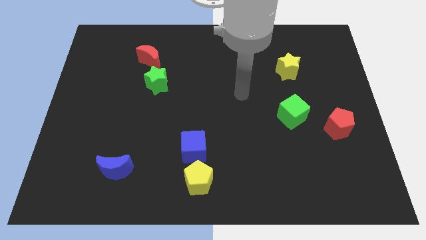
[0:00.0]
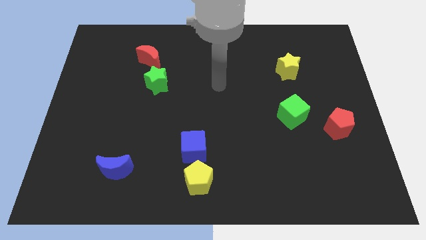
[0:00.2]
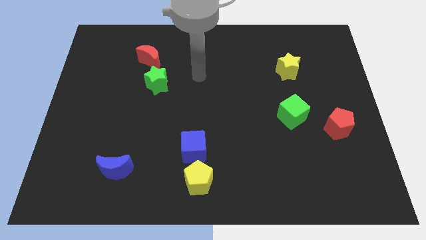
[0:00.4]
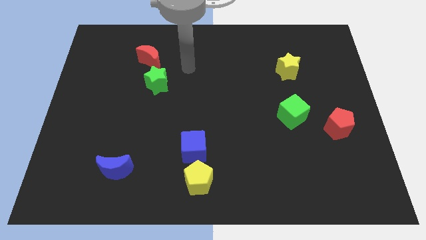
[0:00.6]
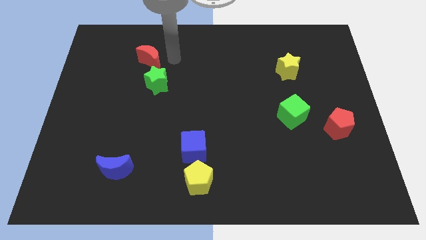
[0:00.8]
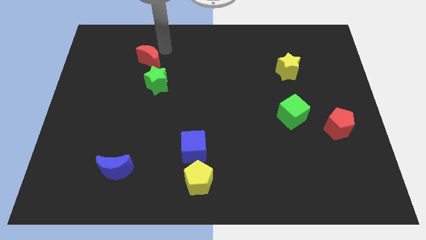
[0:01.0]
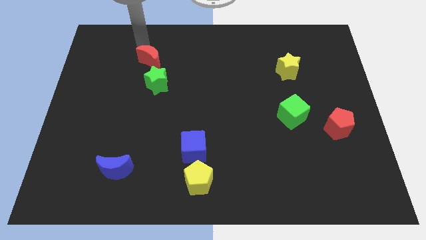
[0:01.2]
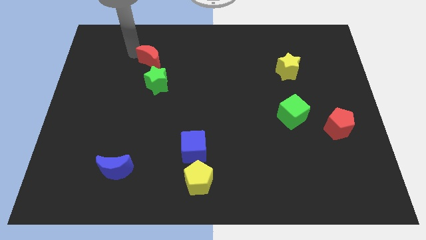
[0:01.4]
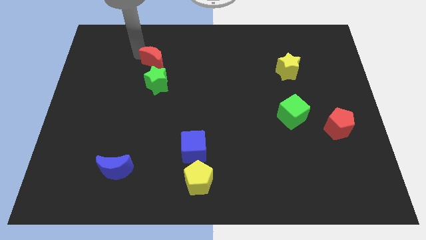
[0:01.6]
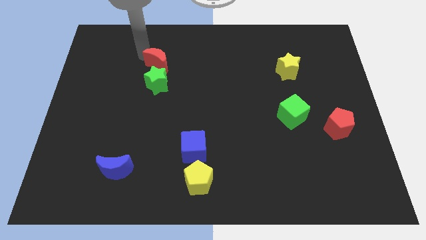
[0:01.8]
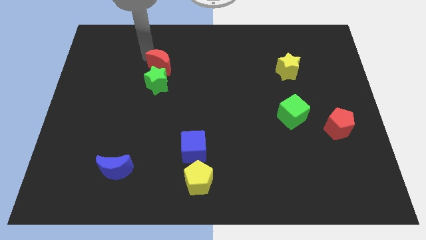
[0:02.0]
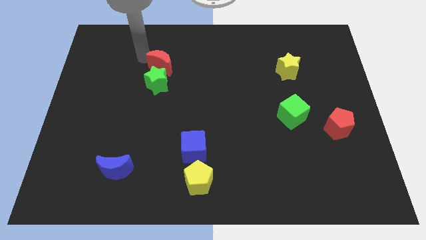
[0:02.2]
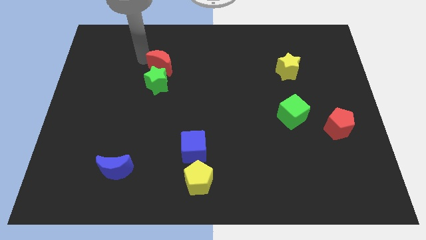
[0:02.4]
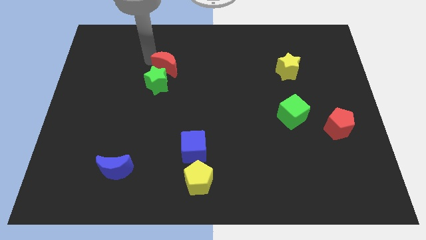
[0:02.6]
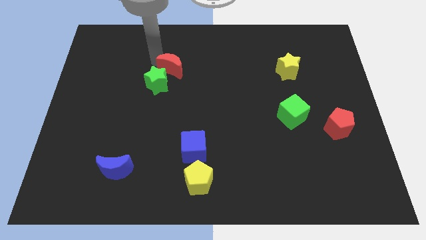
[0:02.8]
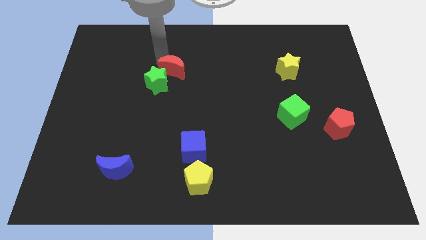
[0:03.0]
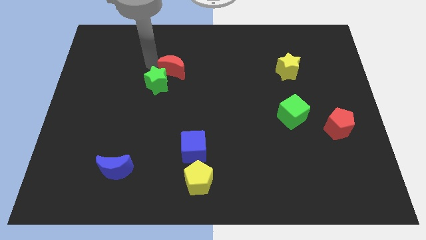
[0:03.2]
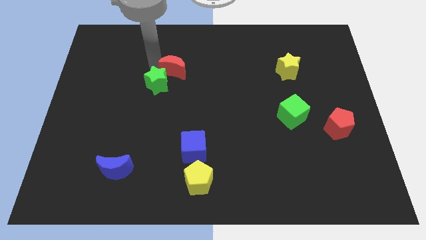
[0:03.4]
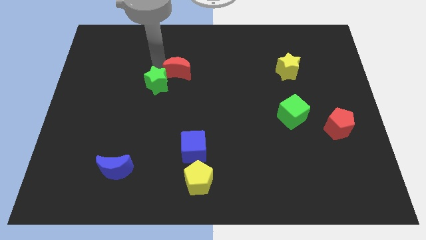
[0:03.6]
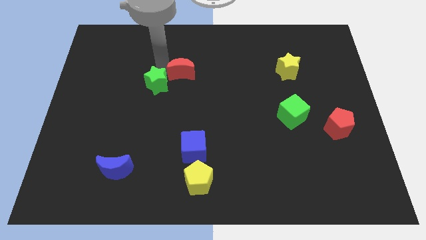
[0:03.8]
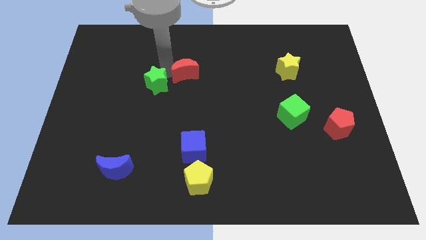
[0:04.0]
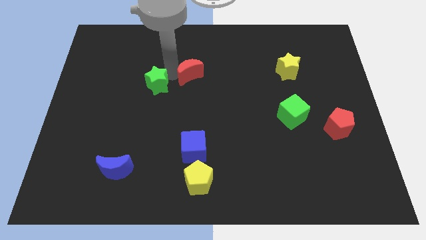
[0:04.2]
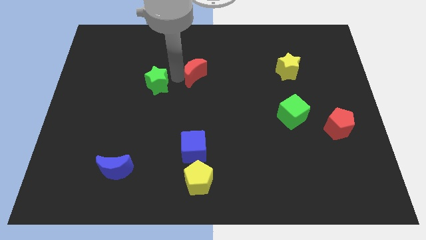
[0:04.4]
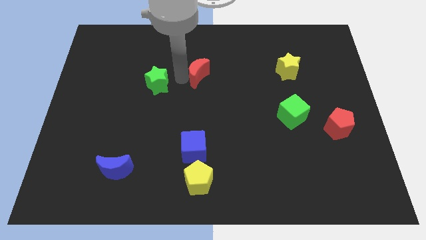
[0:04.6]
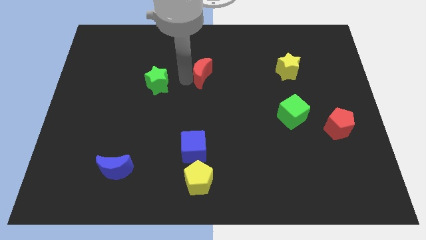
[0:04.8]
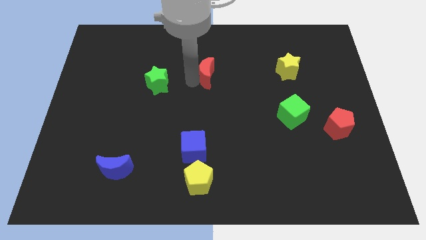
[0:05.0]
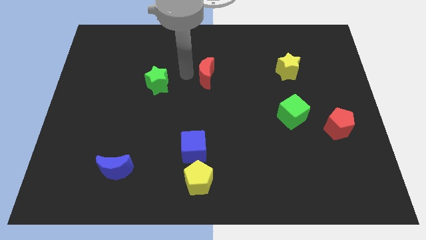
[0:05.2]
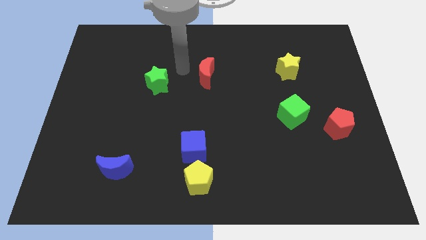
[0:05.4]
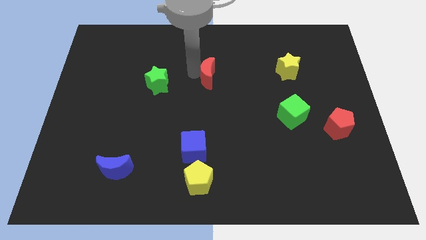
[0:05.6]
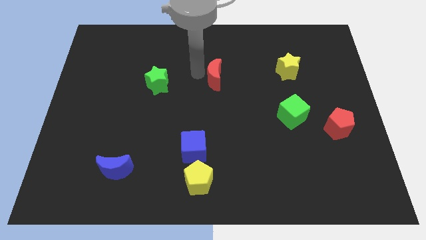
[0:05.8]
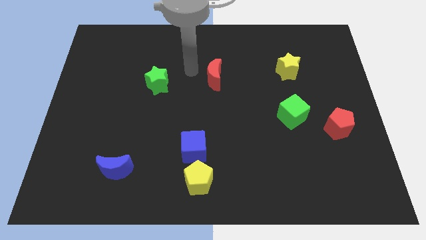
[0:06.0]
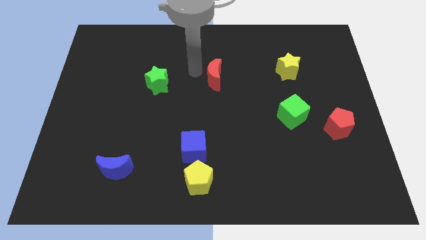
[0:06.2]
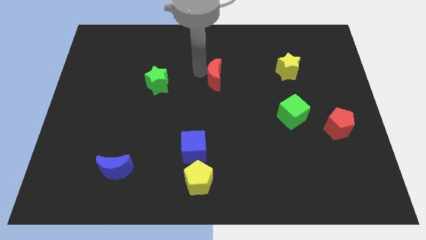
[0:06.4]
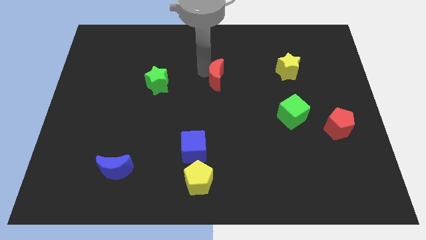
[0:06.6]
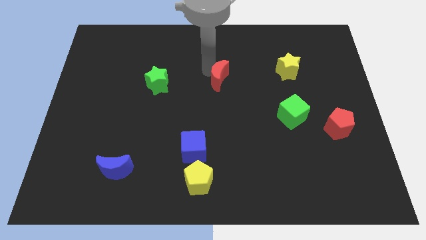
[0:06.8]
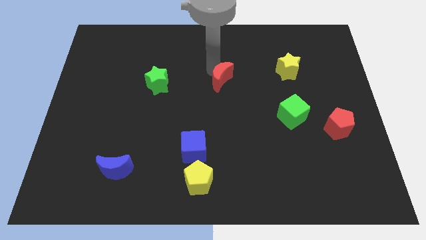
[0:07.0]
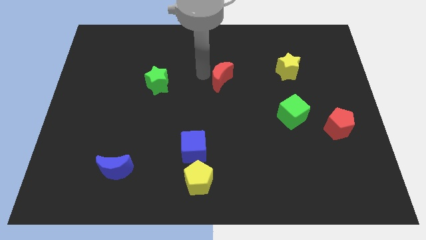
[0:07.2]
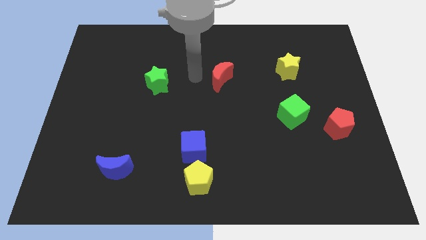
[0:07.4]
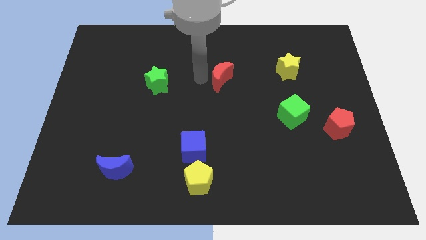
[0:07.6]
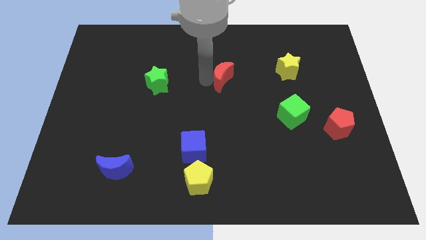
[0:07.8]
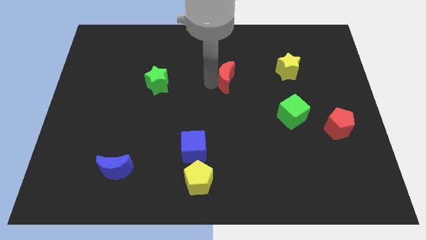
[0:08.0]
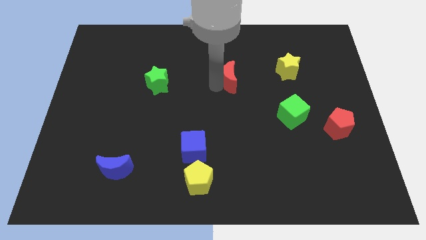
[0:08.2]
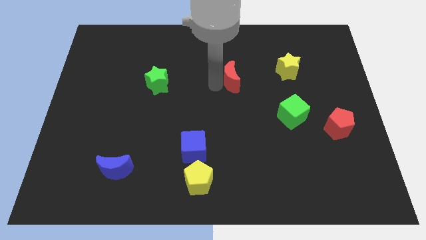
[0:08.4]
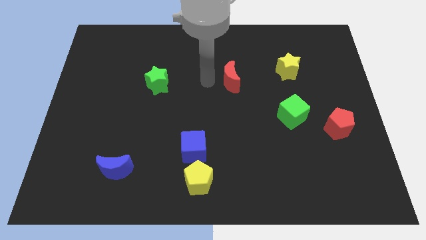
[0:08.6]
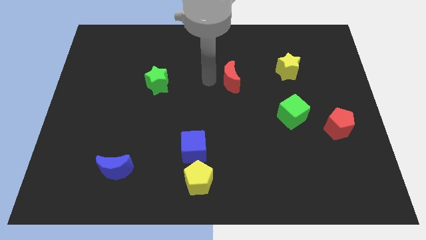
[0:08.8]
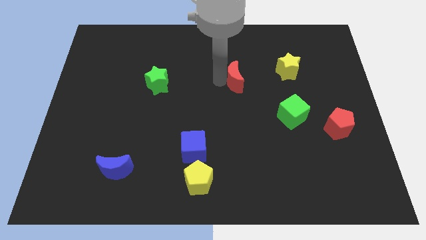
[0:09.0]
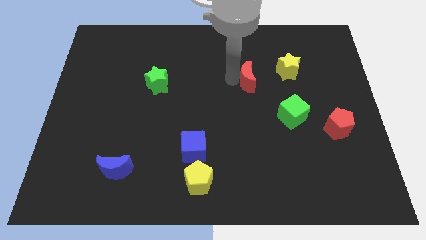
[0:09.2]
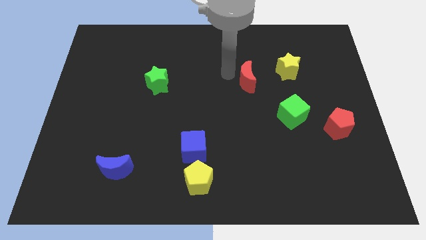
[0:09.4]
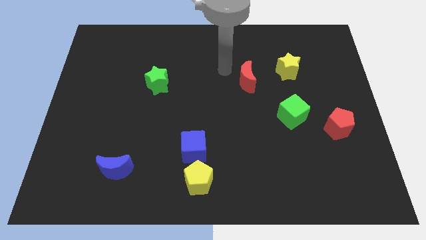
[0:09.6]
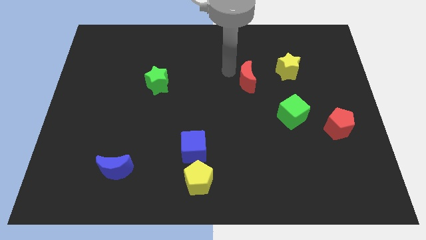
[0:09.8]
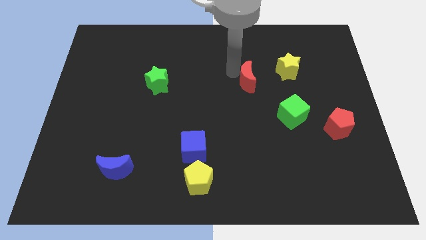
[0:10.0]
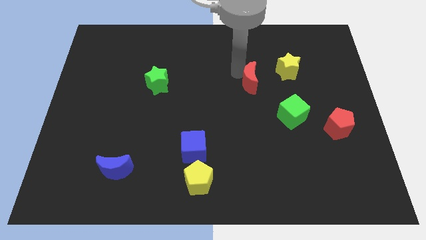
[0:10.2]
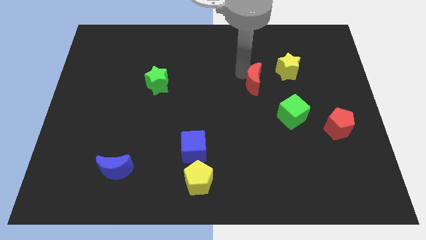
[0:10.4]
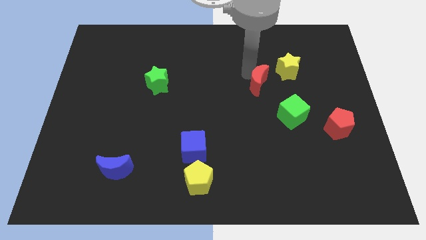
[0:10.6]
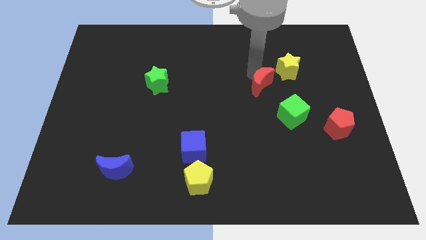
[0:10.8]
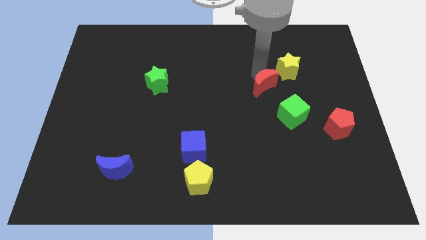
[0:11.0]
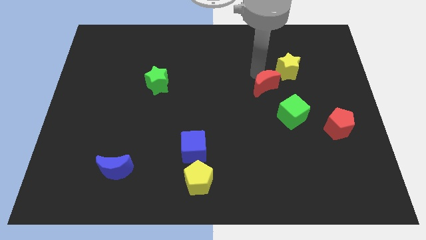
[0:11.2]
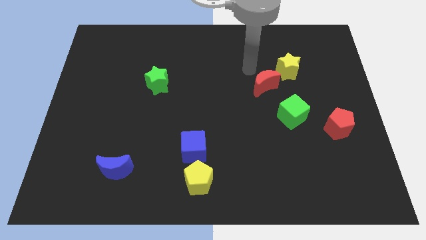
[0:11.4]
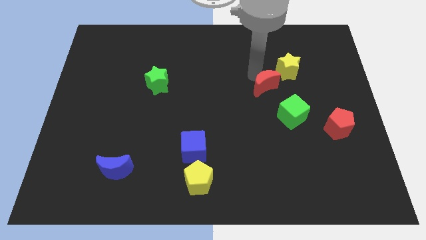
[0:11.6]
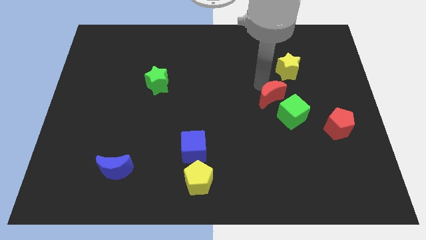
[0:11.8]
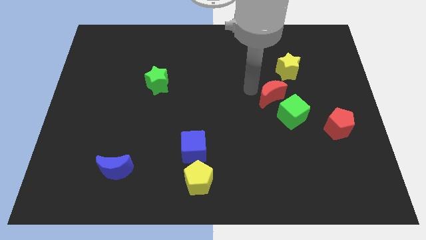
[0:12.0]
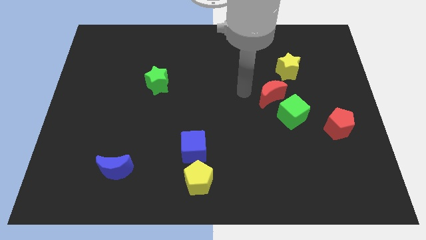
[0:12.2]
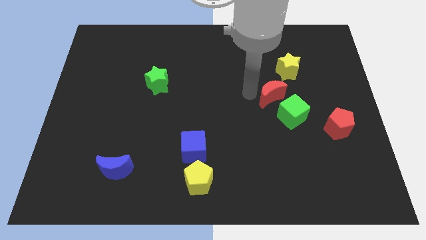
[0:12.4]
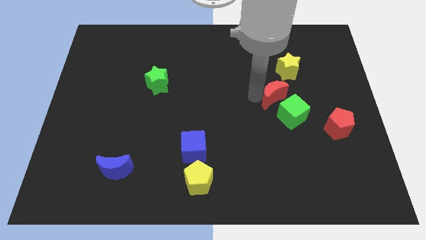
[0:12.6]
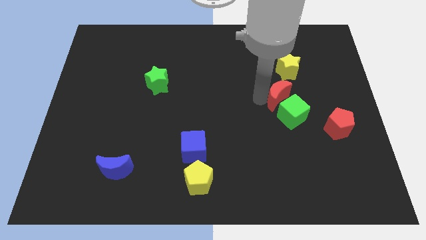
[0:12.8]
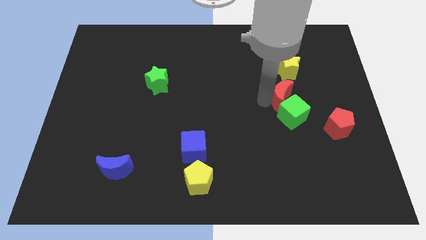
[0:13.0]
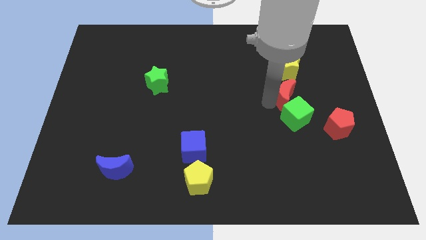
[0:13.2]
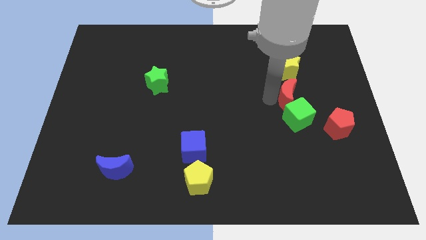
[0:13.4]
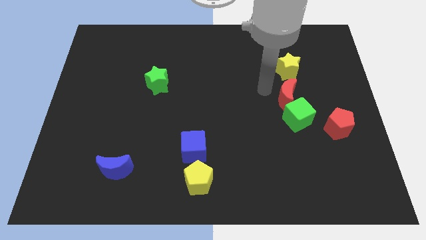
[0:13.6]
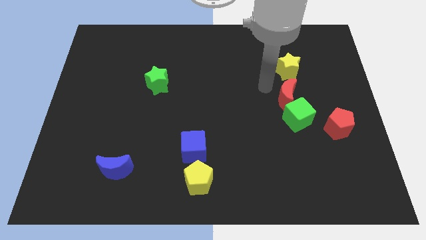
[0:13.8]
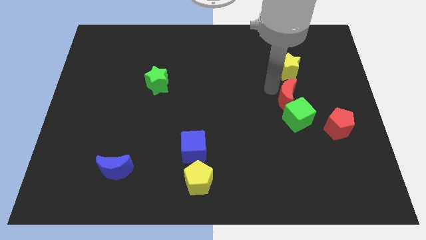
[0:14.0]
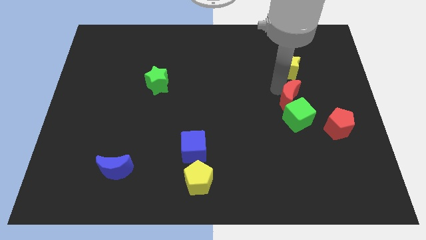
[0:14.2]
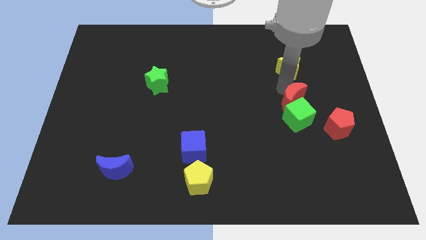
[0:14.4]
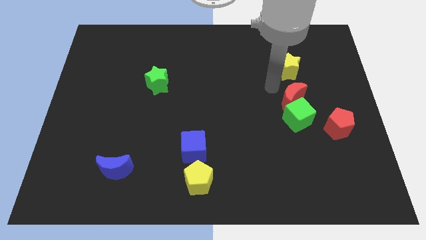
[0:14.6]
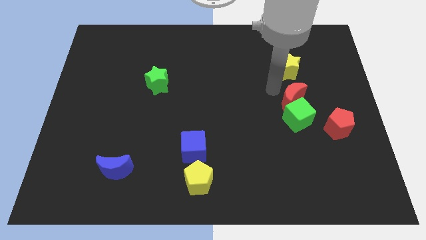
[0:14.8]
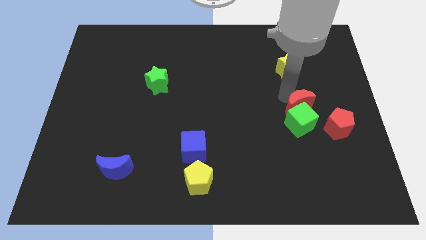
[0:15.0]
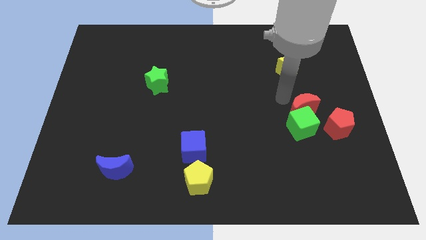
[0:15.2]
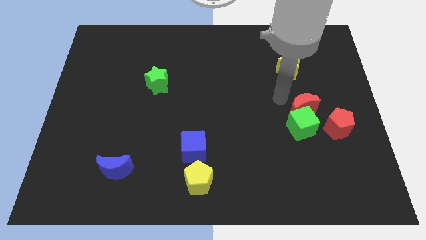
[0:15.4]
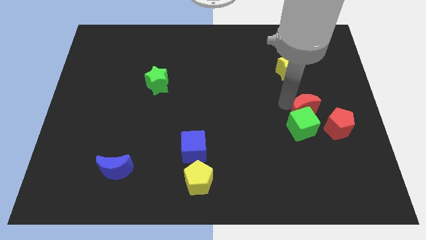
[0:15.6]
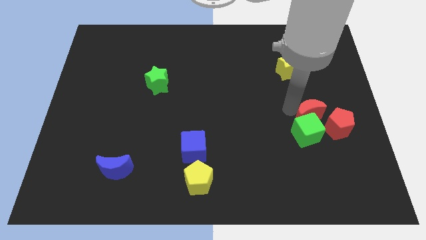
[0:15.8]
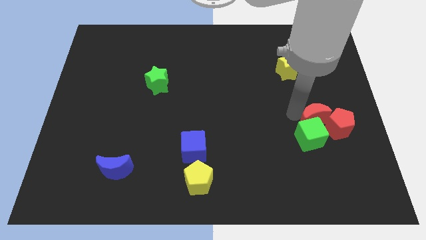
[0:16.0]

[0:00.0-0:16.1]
move the red moon close to the red pentagon
